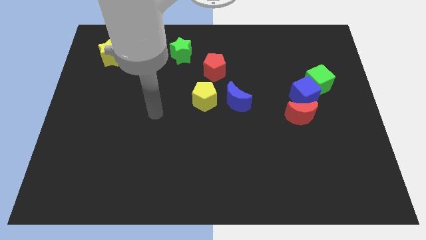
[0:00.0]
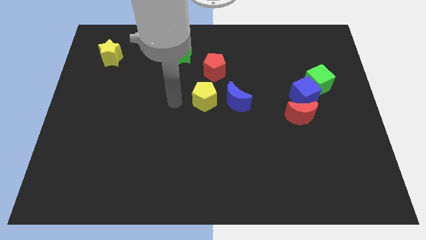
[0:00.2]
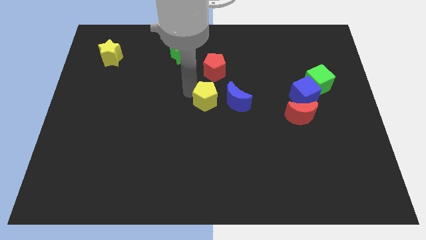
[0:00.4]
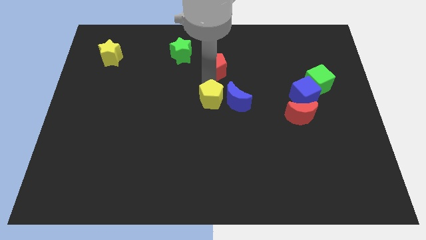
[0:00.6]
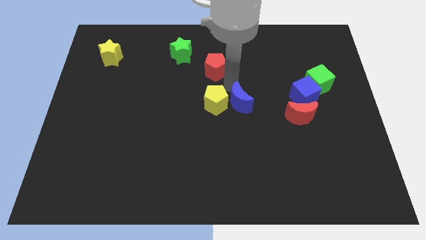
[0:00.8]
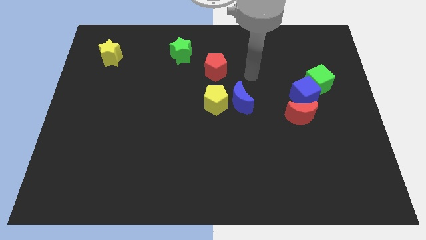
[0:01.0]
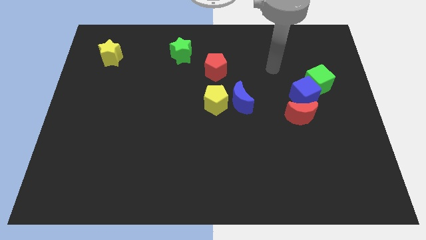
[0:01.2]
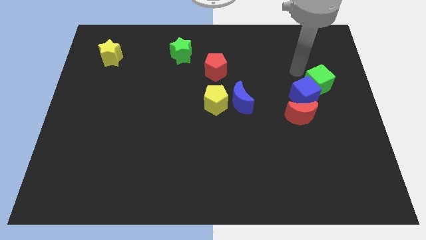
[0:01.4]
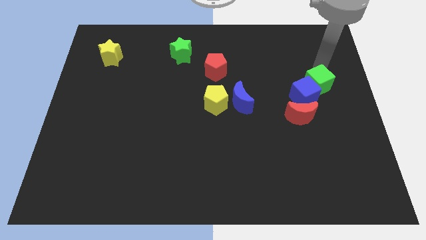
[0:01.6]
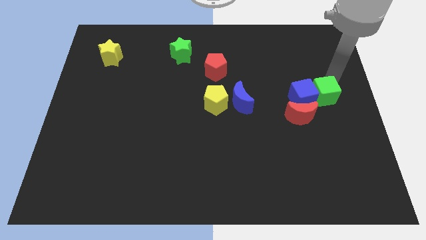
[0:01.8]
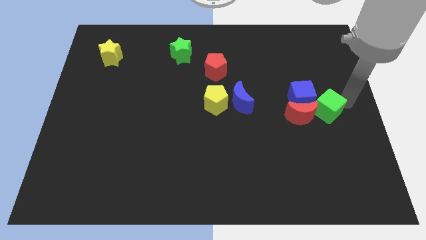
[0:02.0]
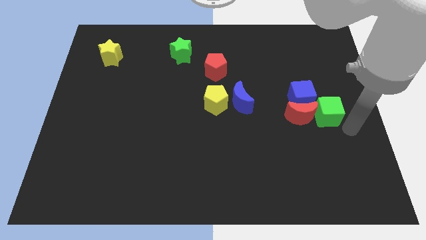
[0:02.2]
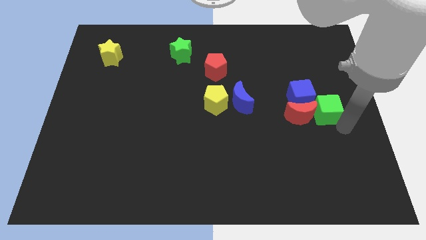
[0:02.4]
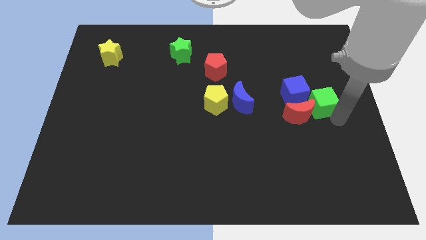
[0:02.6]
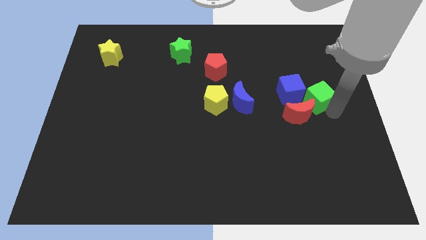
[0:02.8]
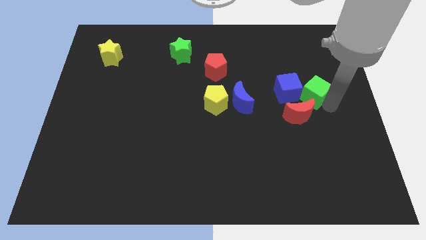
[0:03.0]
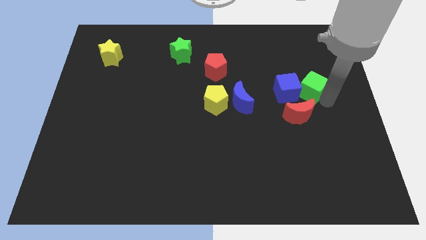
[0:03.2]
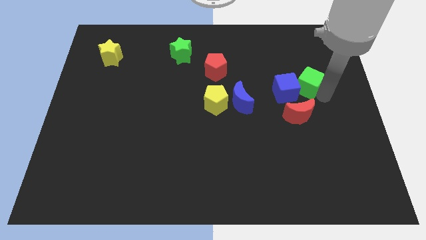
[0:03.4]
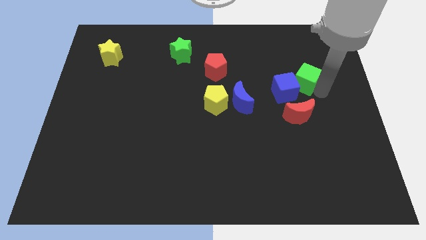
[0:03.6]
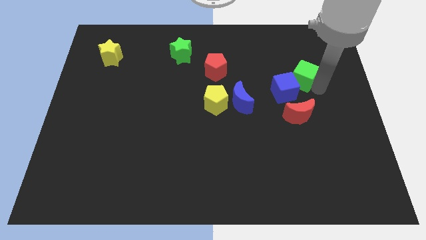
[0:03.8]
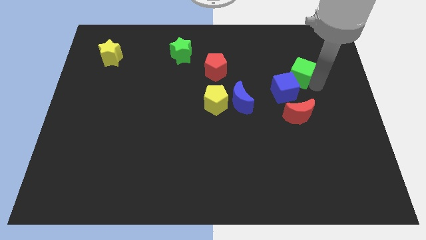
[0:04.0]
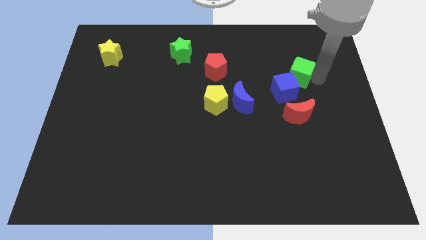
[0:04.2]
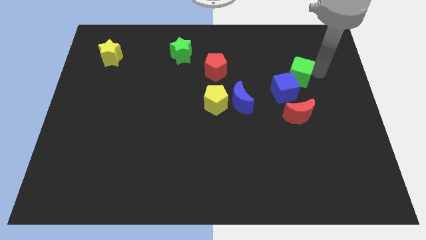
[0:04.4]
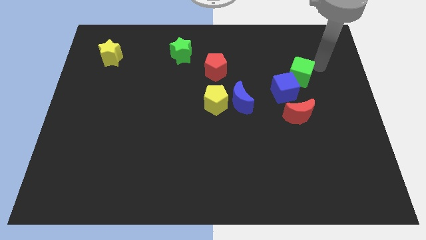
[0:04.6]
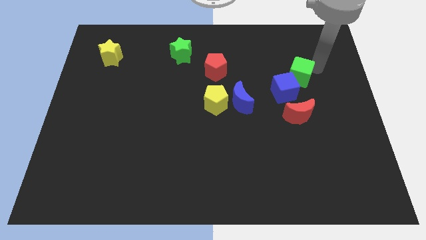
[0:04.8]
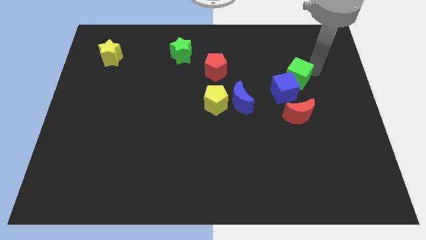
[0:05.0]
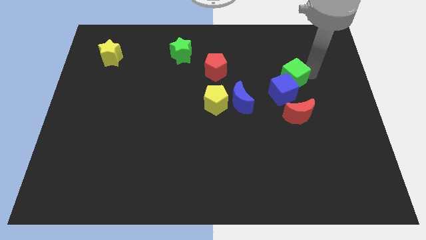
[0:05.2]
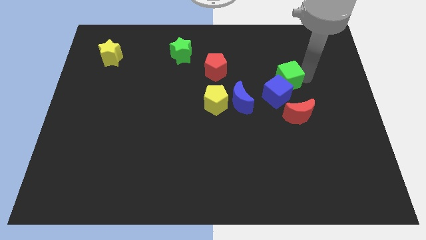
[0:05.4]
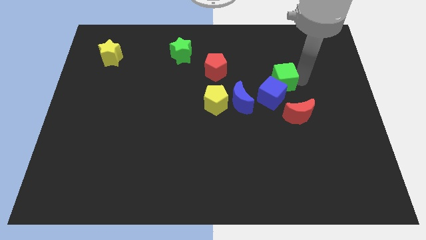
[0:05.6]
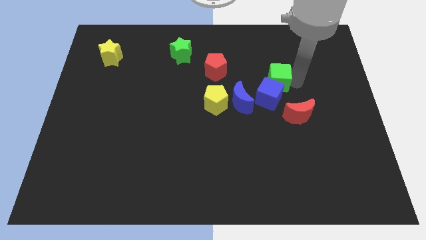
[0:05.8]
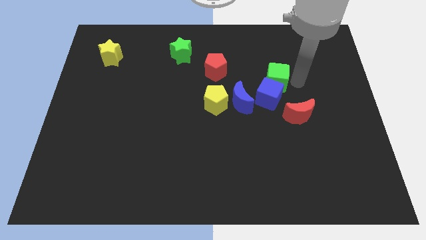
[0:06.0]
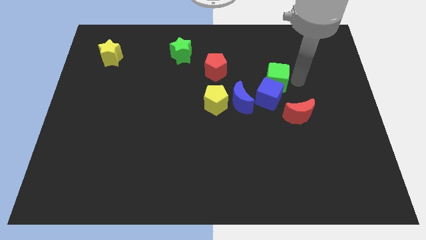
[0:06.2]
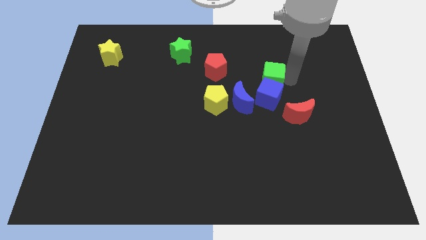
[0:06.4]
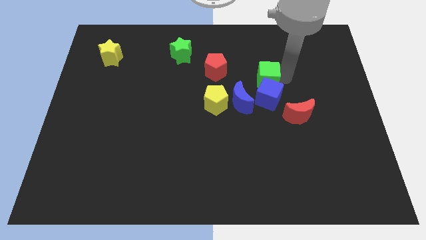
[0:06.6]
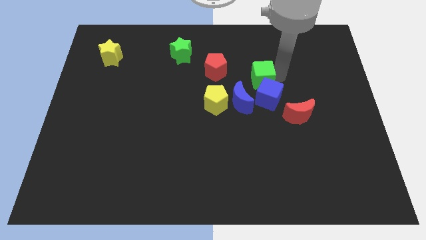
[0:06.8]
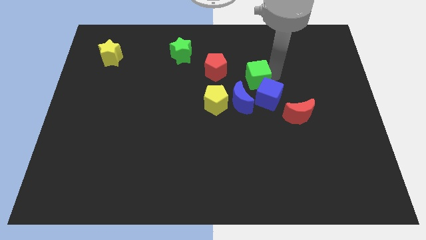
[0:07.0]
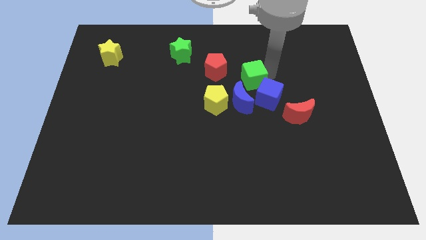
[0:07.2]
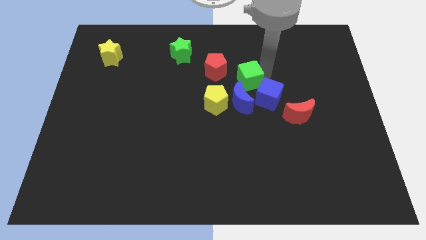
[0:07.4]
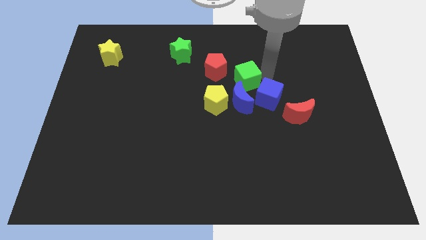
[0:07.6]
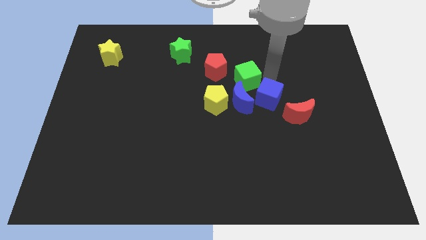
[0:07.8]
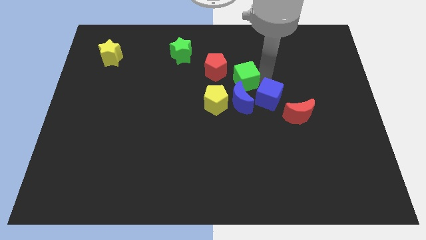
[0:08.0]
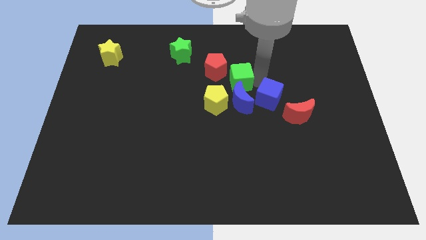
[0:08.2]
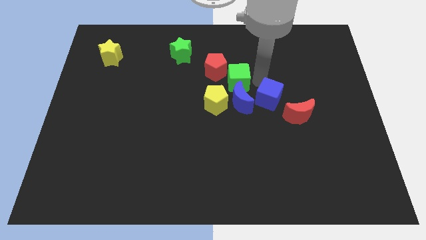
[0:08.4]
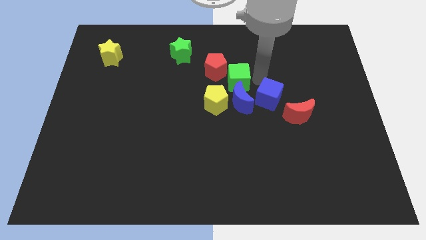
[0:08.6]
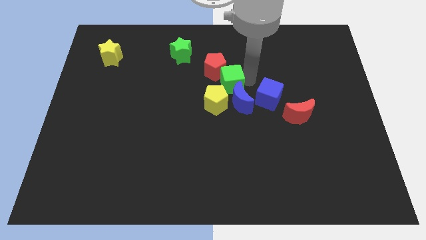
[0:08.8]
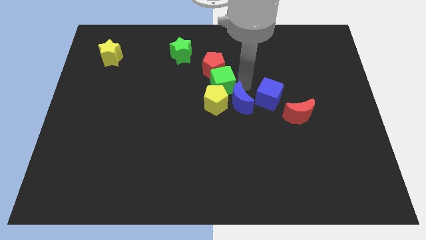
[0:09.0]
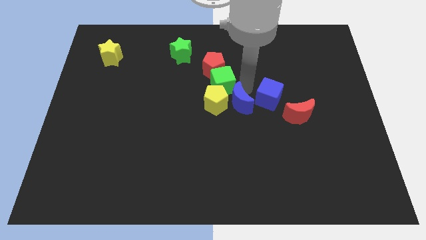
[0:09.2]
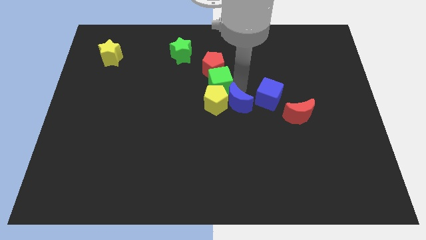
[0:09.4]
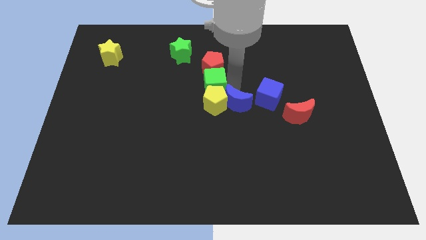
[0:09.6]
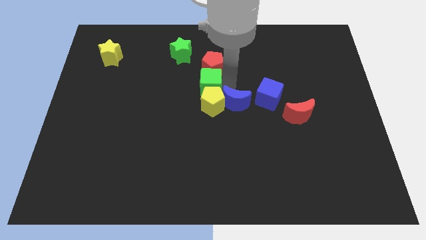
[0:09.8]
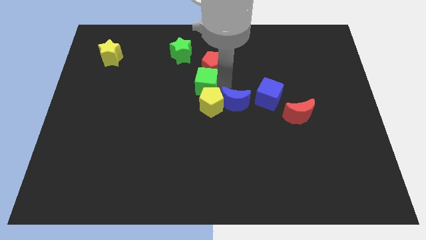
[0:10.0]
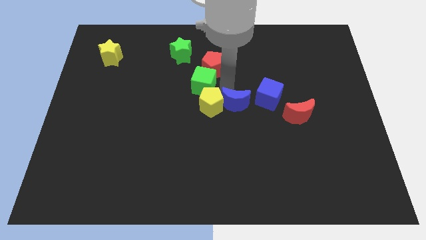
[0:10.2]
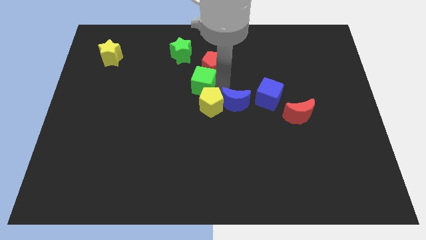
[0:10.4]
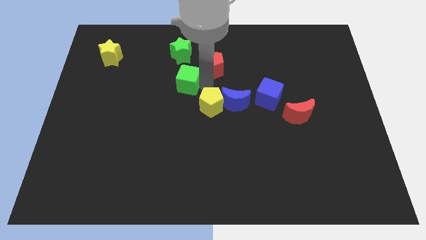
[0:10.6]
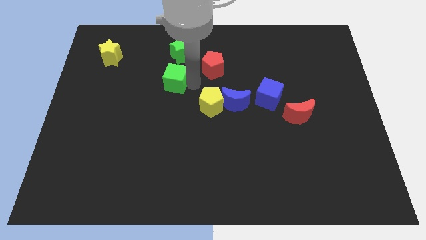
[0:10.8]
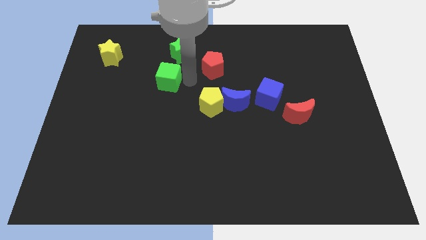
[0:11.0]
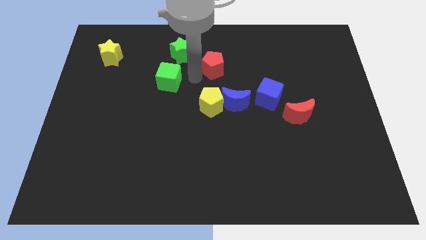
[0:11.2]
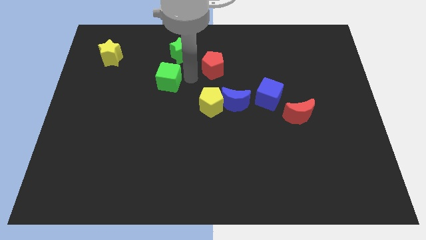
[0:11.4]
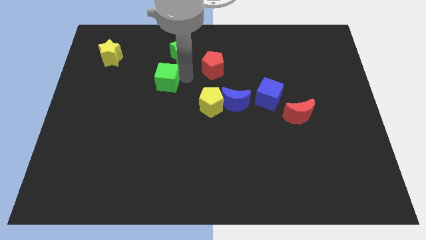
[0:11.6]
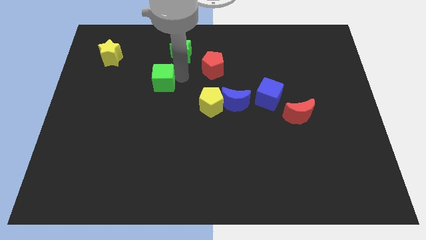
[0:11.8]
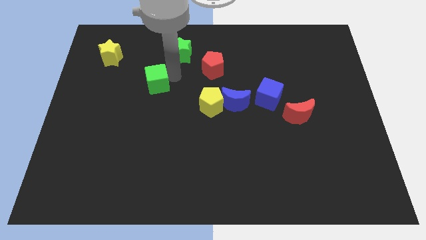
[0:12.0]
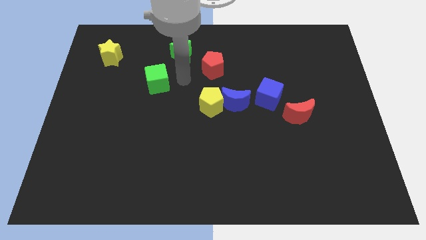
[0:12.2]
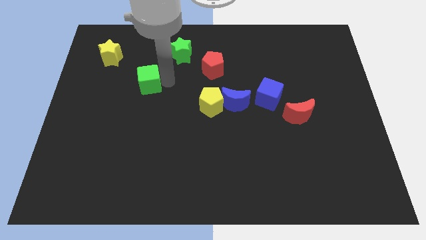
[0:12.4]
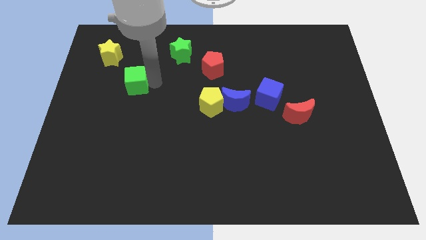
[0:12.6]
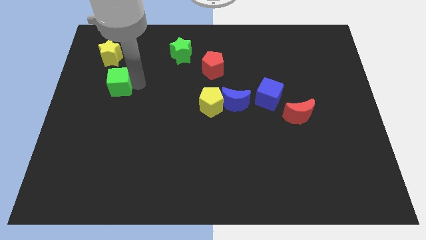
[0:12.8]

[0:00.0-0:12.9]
move the green cube to the bottom side of the yellow star

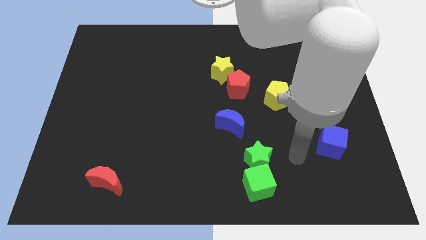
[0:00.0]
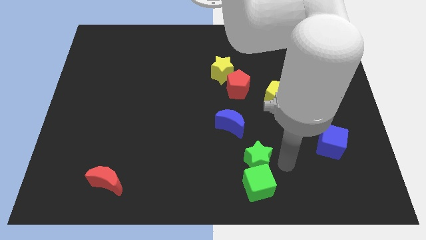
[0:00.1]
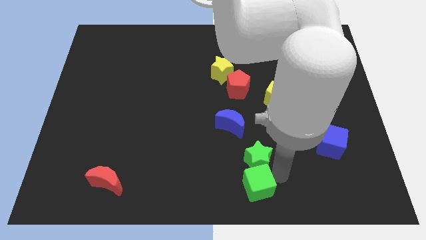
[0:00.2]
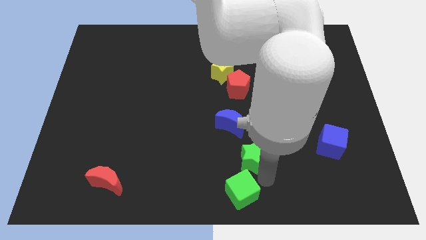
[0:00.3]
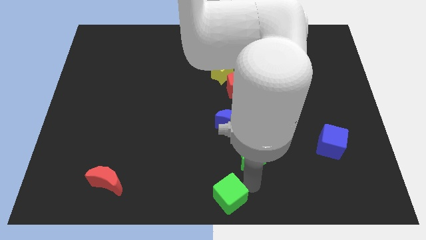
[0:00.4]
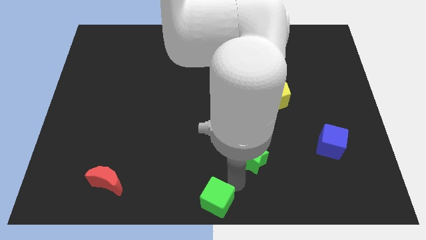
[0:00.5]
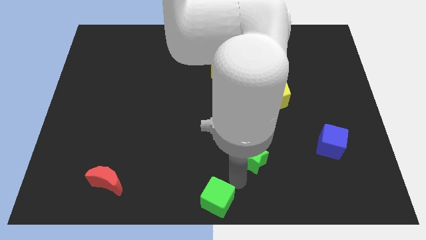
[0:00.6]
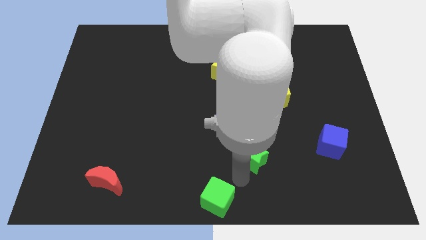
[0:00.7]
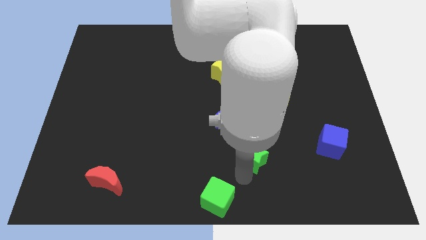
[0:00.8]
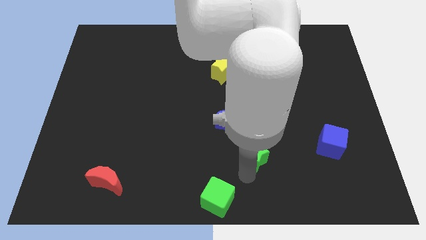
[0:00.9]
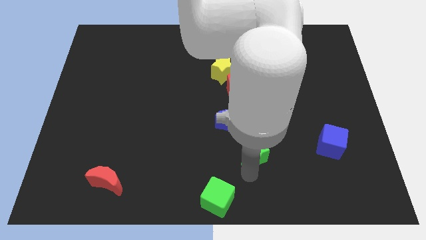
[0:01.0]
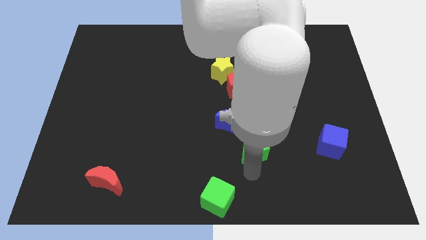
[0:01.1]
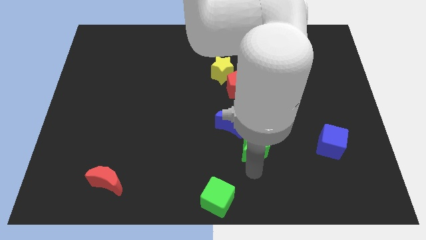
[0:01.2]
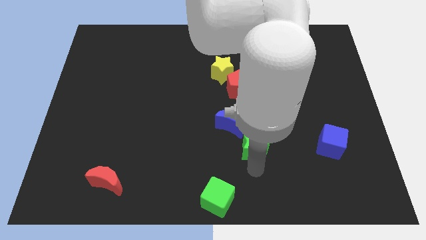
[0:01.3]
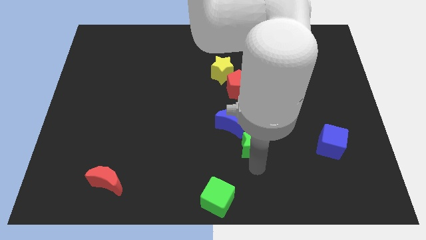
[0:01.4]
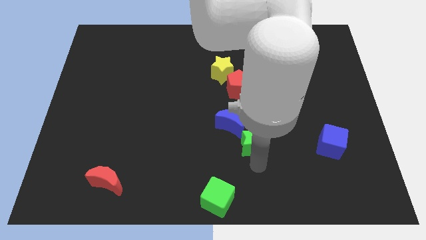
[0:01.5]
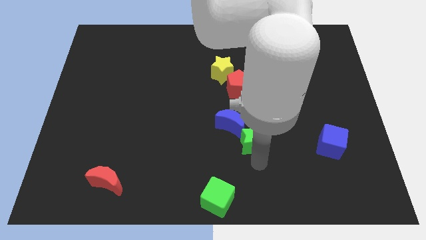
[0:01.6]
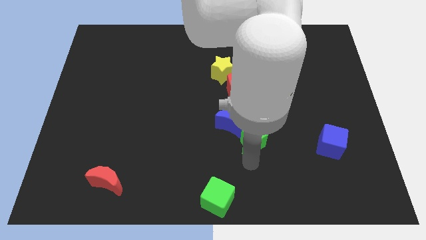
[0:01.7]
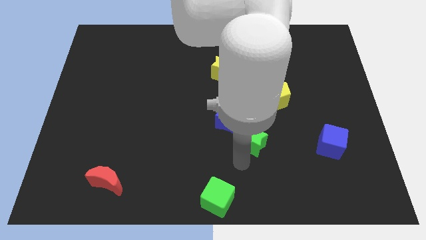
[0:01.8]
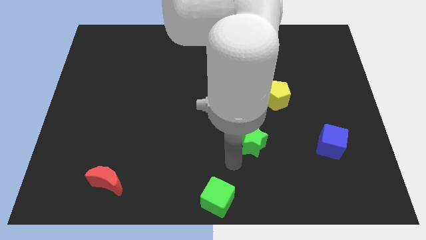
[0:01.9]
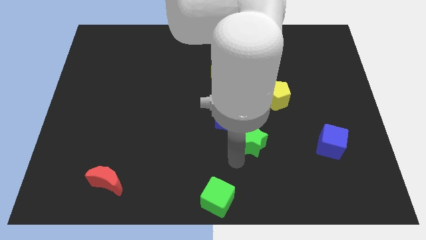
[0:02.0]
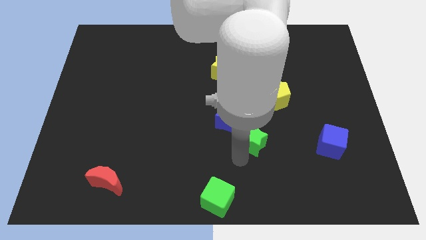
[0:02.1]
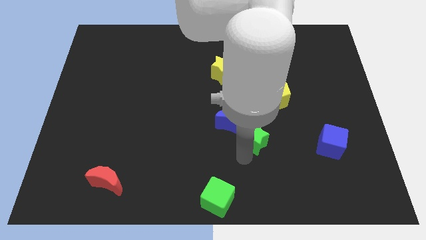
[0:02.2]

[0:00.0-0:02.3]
move the green star to the right side of the blue moon
